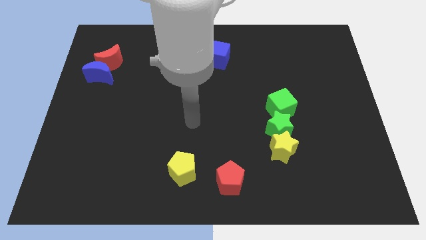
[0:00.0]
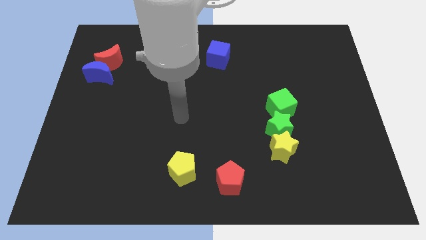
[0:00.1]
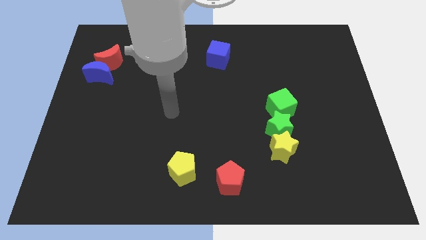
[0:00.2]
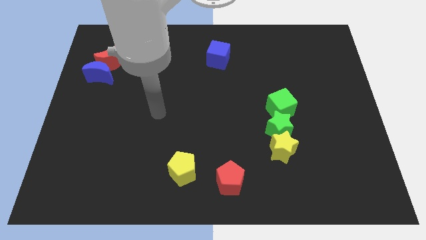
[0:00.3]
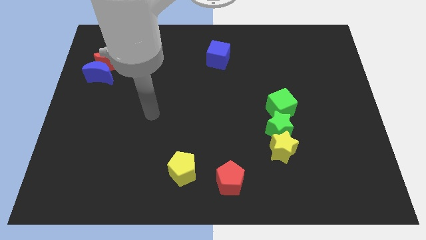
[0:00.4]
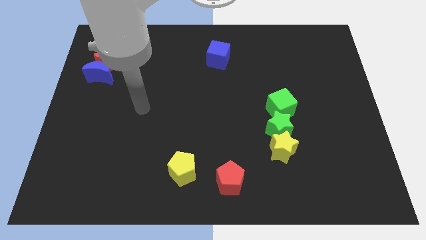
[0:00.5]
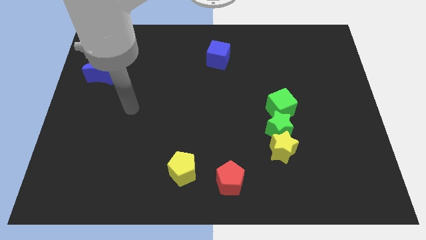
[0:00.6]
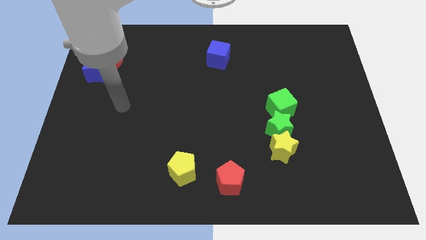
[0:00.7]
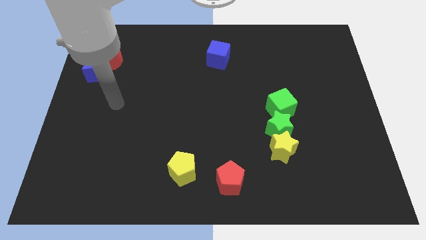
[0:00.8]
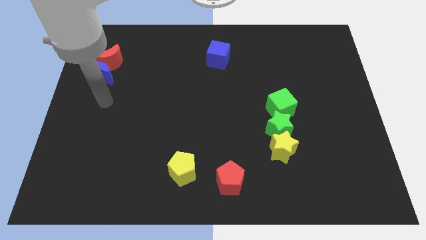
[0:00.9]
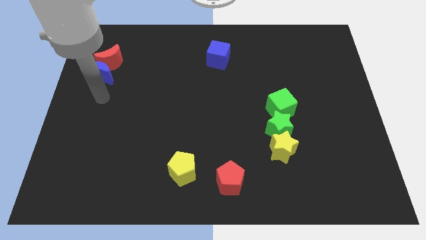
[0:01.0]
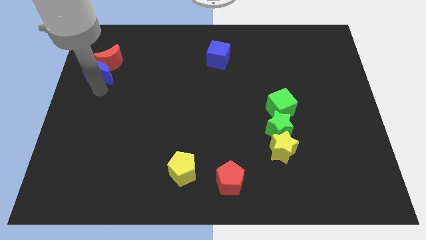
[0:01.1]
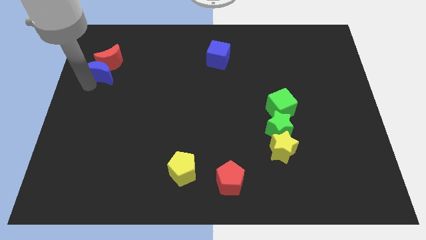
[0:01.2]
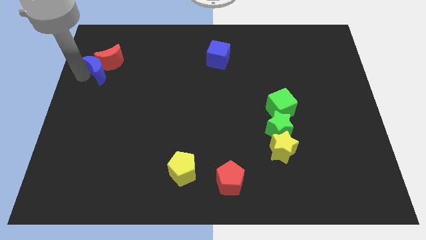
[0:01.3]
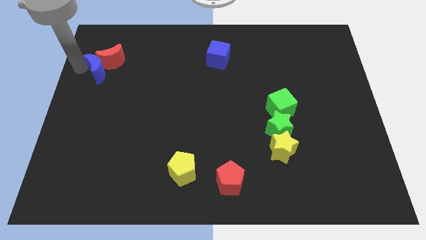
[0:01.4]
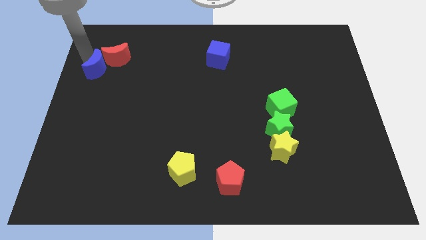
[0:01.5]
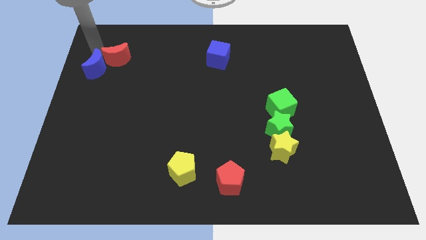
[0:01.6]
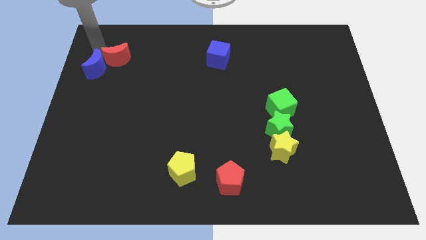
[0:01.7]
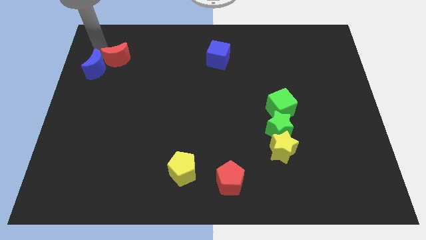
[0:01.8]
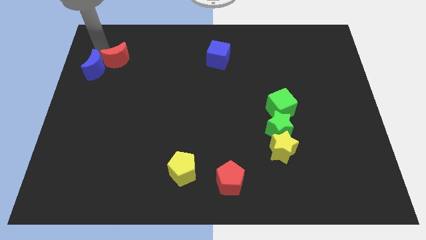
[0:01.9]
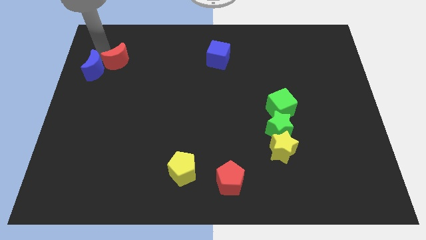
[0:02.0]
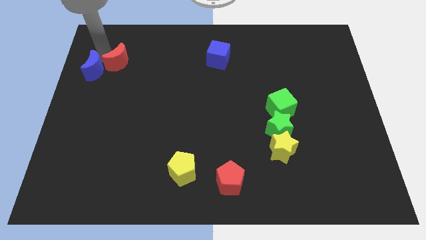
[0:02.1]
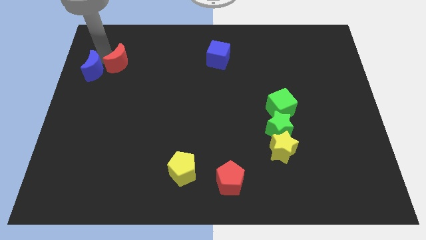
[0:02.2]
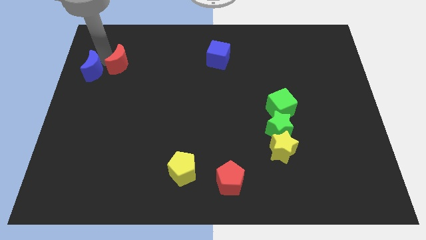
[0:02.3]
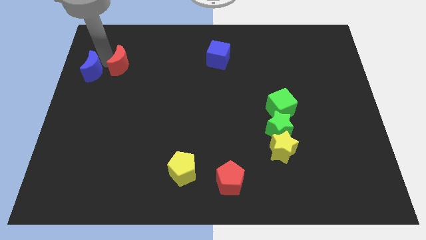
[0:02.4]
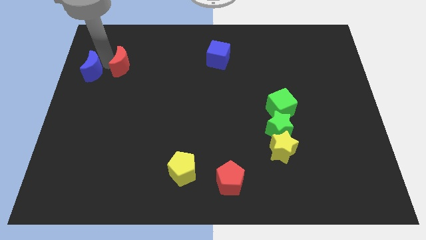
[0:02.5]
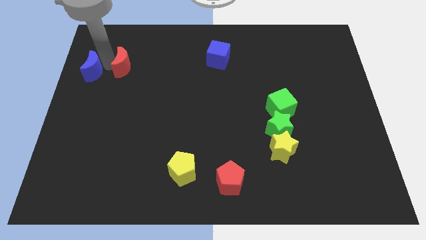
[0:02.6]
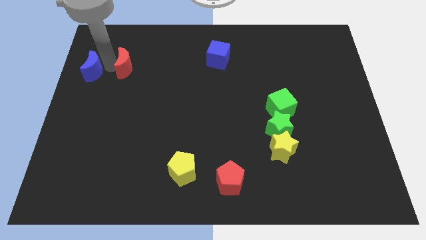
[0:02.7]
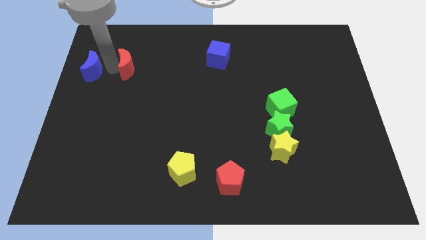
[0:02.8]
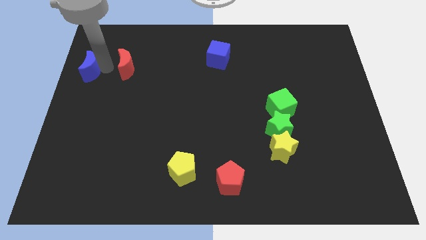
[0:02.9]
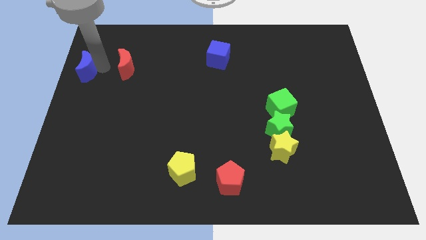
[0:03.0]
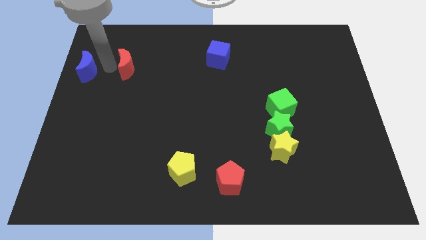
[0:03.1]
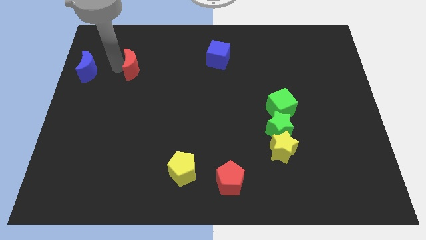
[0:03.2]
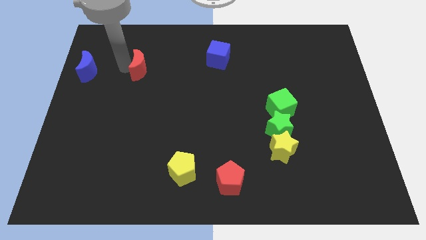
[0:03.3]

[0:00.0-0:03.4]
push the red moon somewhat to the right

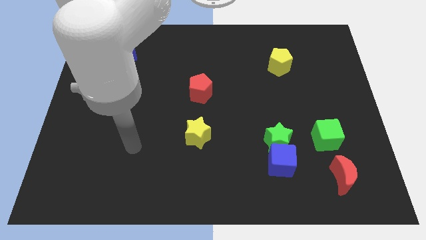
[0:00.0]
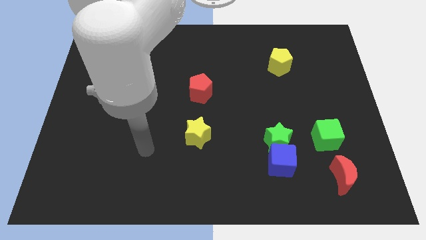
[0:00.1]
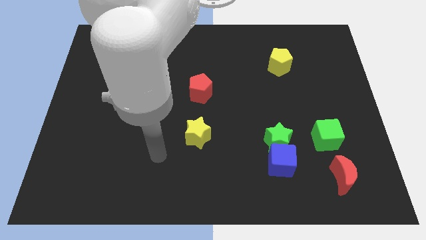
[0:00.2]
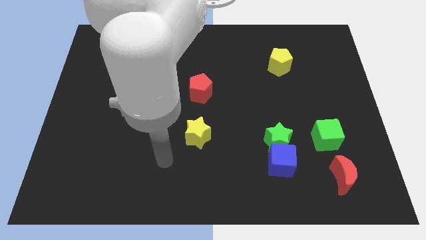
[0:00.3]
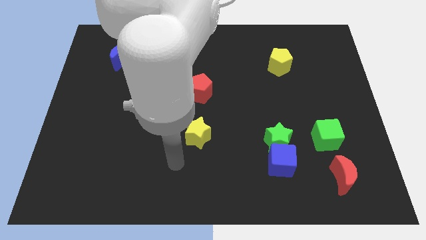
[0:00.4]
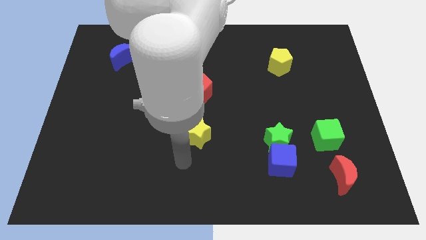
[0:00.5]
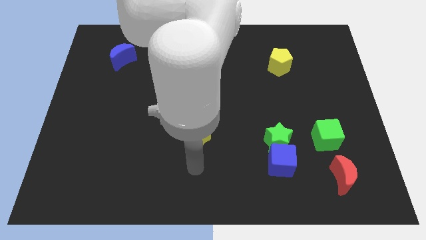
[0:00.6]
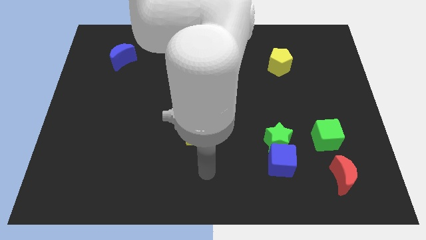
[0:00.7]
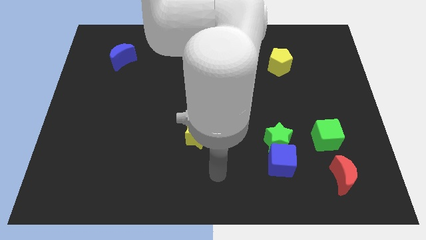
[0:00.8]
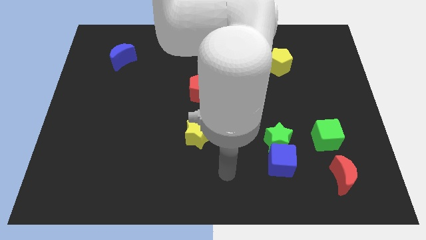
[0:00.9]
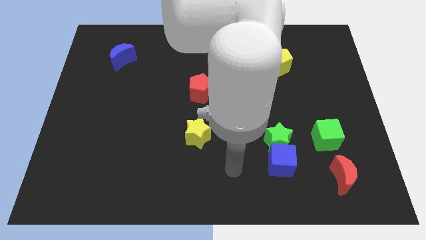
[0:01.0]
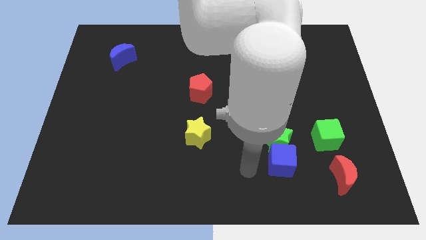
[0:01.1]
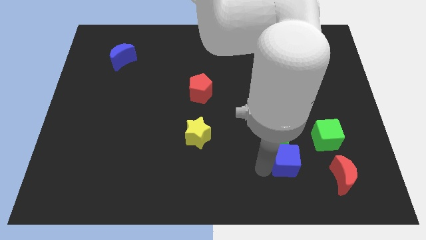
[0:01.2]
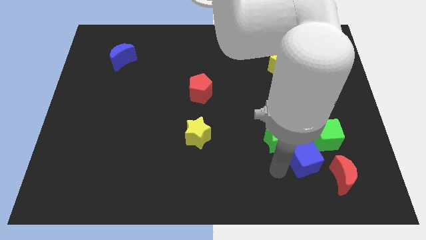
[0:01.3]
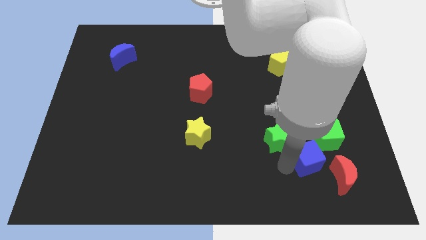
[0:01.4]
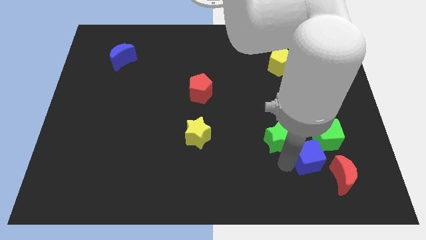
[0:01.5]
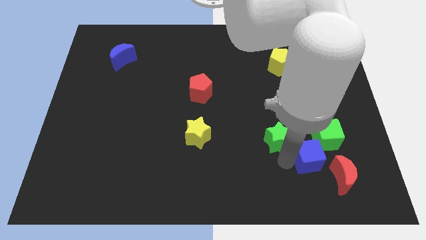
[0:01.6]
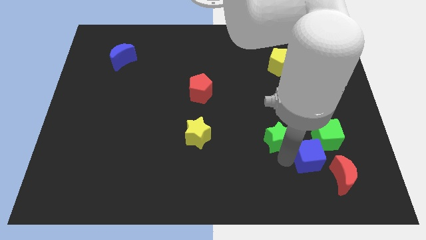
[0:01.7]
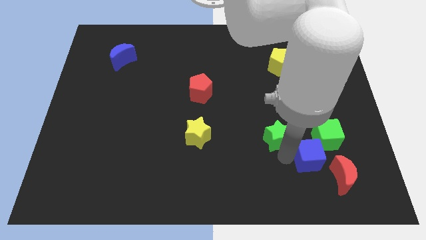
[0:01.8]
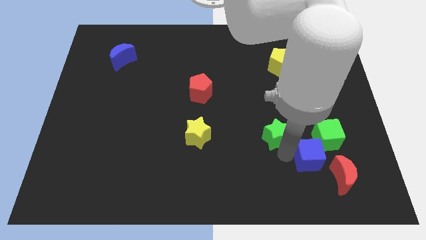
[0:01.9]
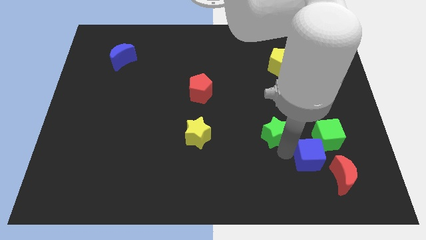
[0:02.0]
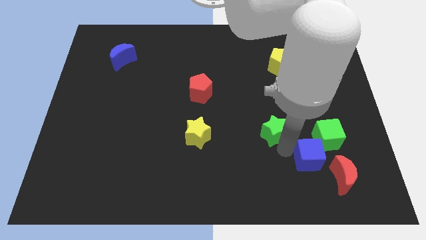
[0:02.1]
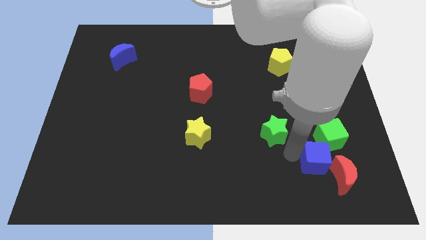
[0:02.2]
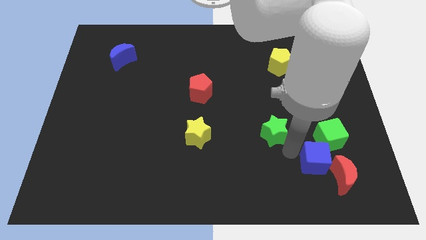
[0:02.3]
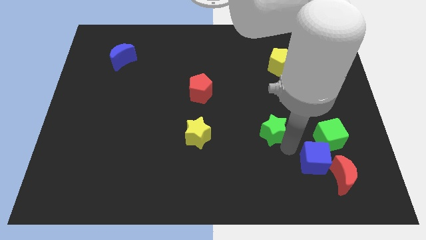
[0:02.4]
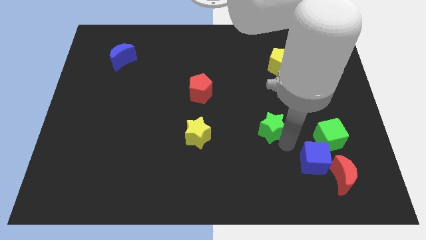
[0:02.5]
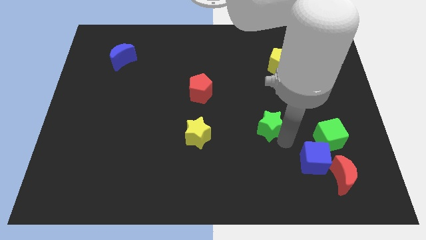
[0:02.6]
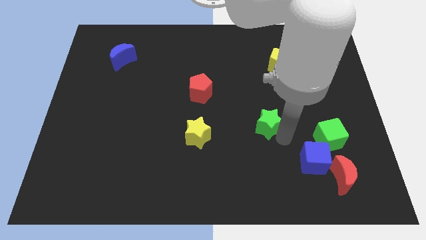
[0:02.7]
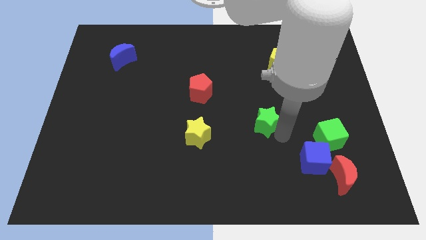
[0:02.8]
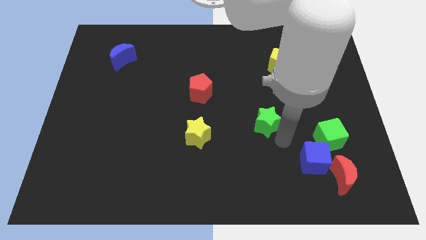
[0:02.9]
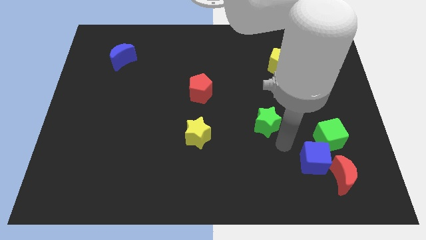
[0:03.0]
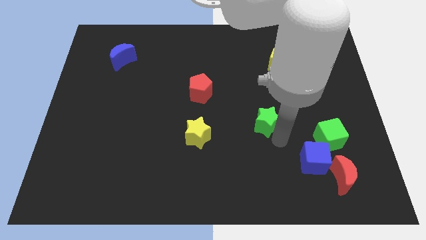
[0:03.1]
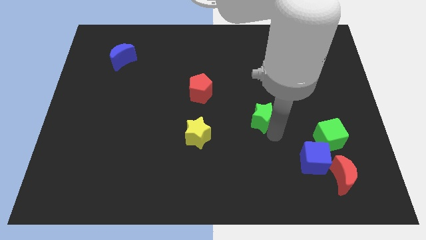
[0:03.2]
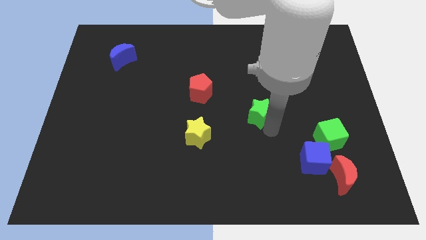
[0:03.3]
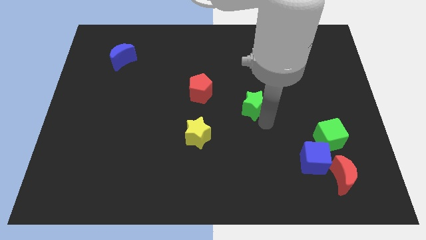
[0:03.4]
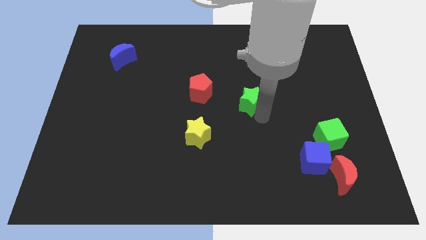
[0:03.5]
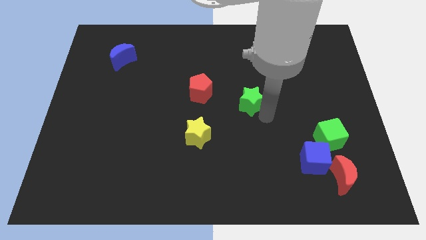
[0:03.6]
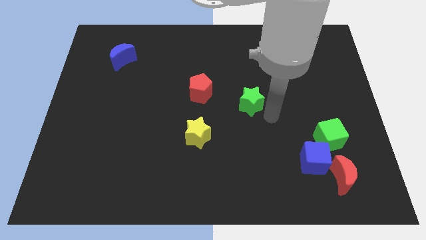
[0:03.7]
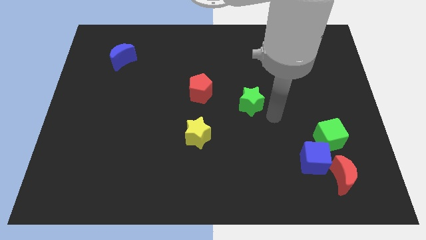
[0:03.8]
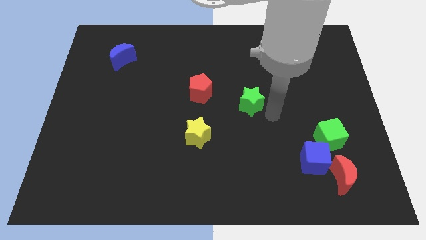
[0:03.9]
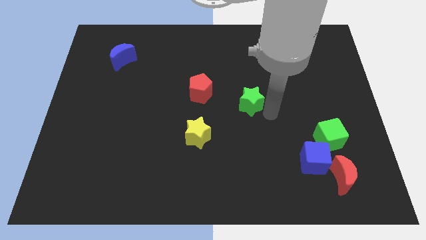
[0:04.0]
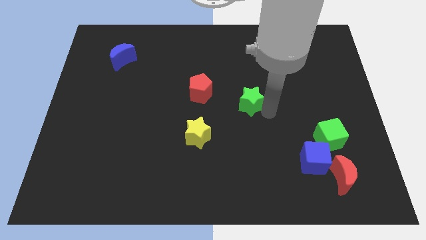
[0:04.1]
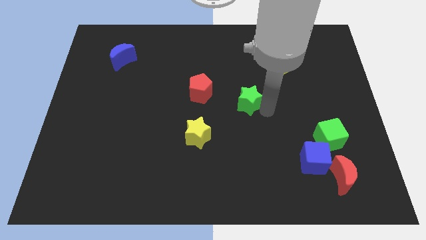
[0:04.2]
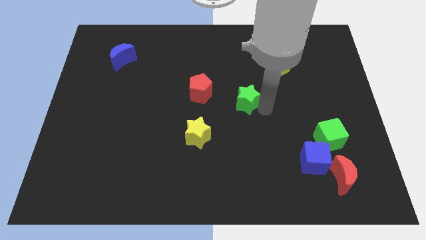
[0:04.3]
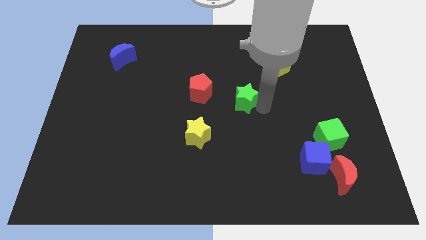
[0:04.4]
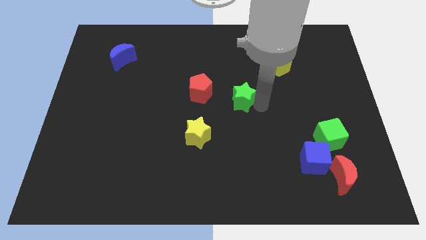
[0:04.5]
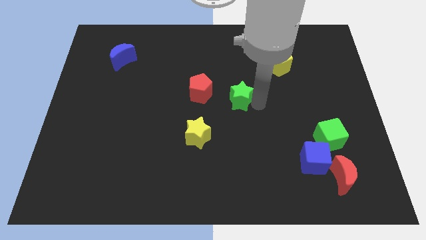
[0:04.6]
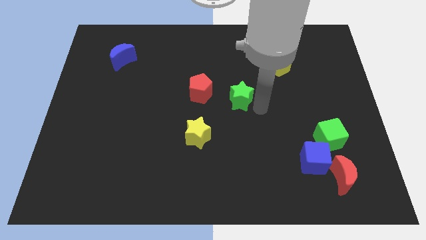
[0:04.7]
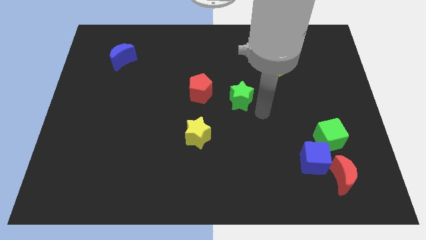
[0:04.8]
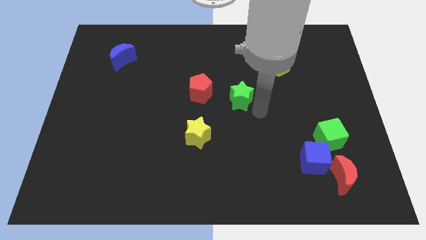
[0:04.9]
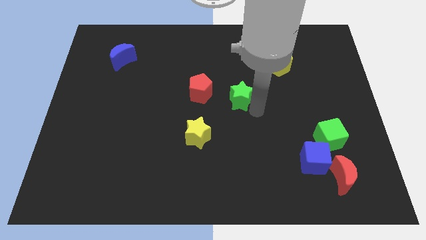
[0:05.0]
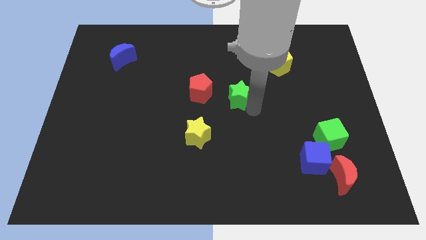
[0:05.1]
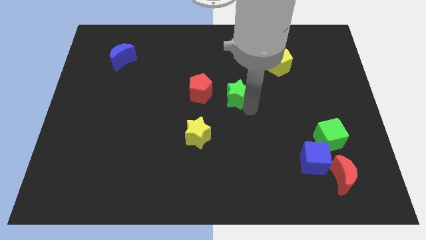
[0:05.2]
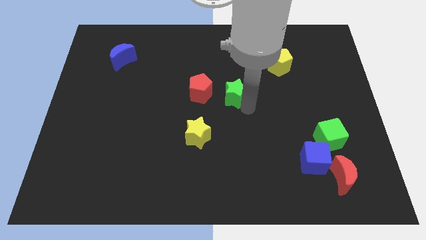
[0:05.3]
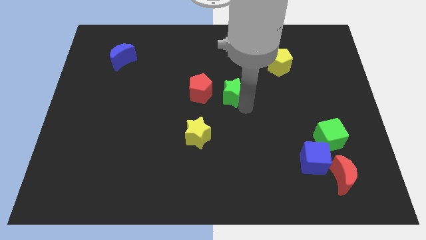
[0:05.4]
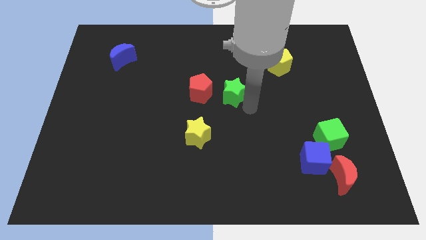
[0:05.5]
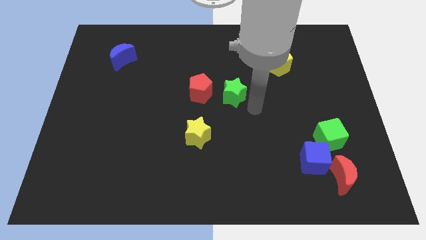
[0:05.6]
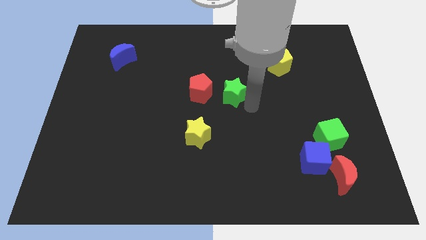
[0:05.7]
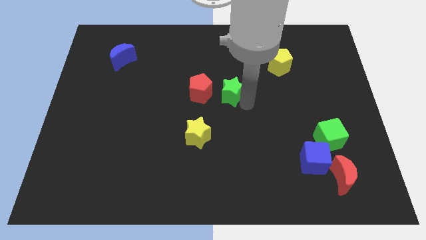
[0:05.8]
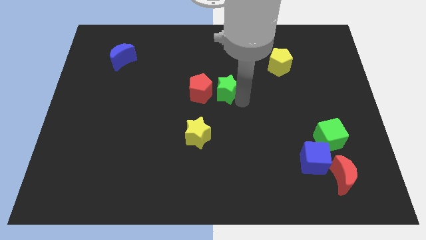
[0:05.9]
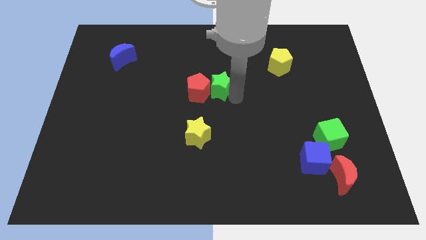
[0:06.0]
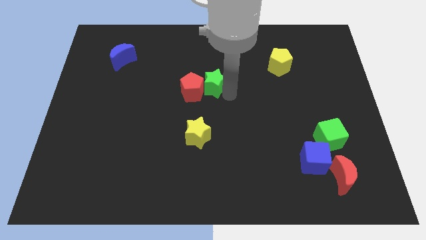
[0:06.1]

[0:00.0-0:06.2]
slide the green star upwards and then to the left
